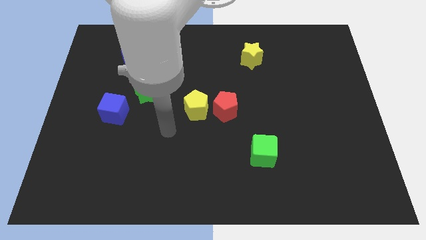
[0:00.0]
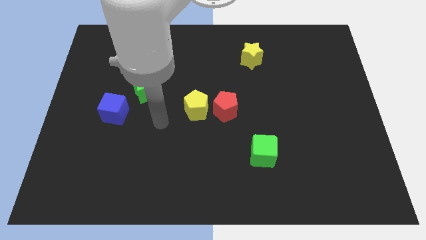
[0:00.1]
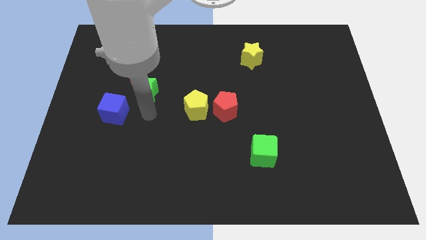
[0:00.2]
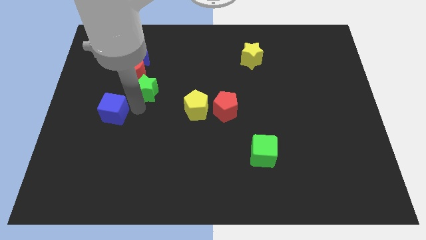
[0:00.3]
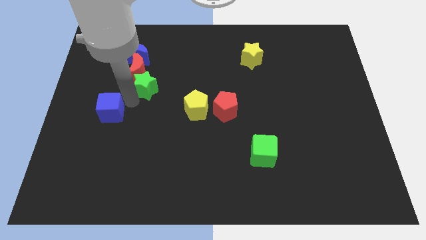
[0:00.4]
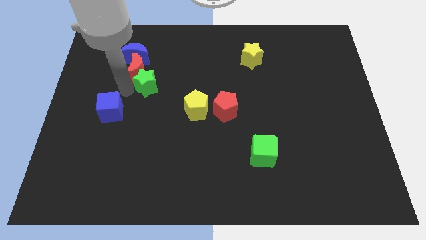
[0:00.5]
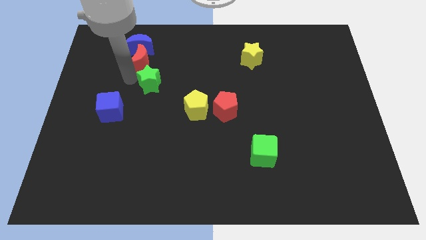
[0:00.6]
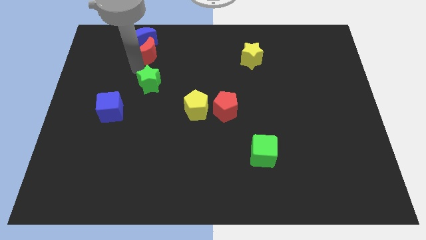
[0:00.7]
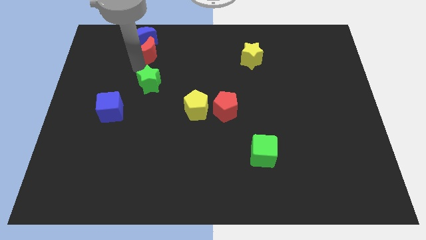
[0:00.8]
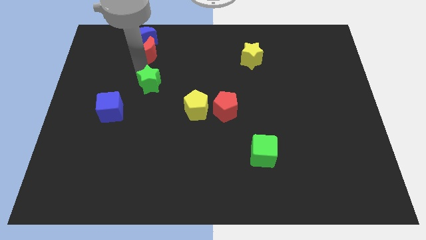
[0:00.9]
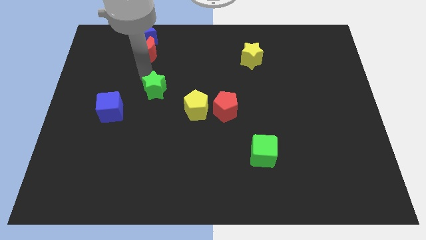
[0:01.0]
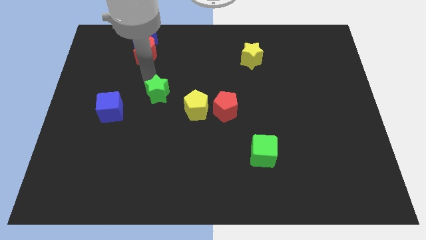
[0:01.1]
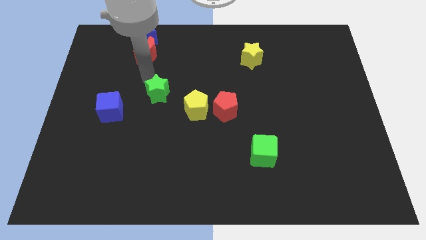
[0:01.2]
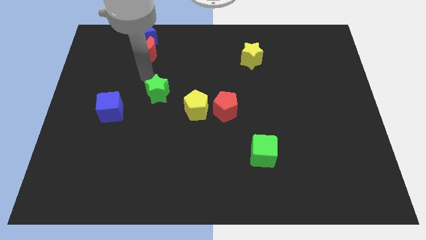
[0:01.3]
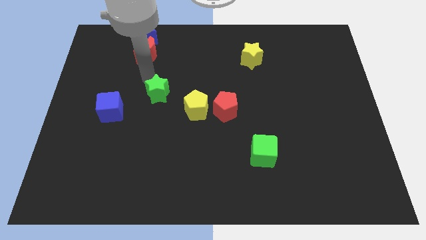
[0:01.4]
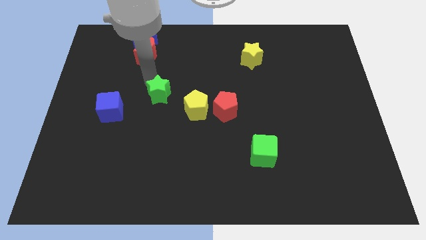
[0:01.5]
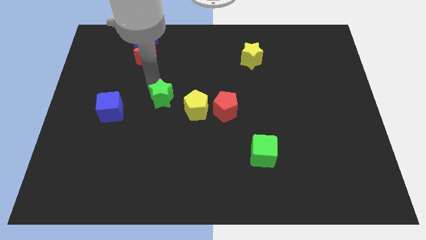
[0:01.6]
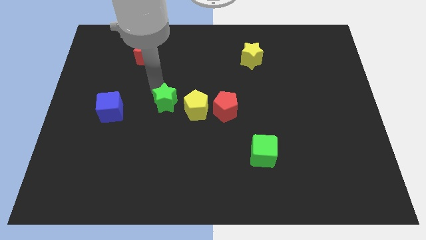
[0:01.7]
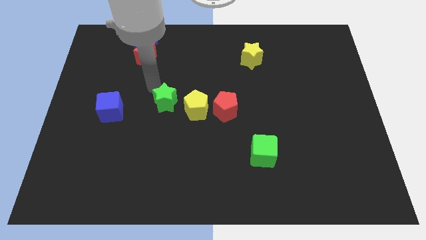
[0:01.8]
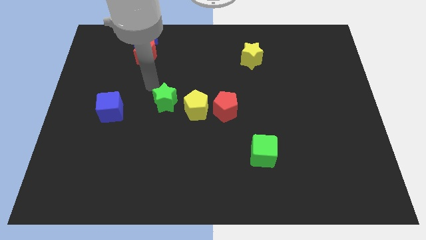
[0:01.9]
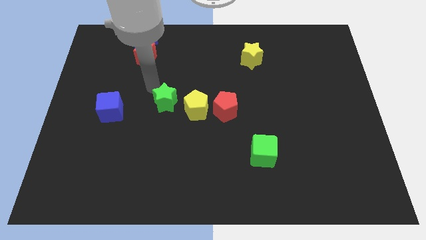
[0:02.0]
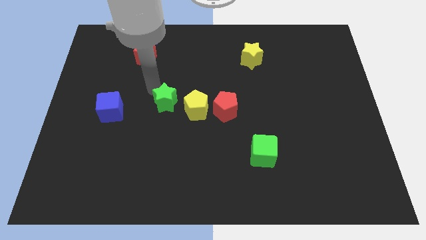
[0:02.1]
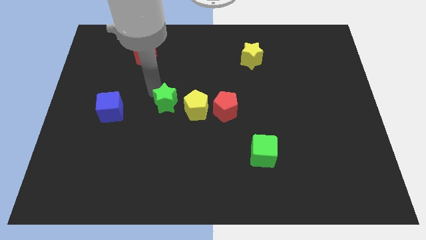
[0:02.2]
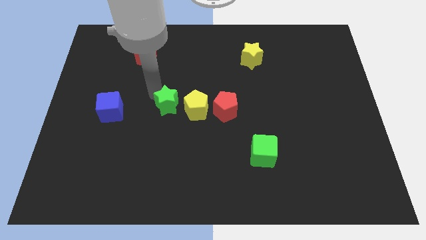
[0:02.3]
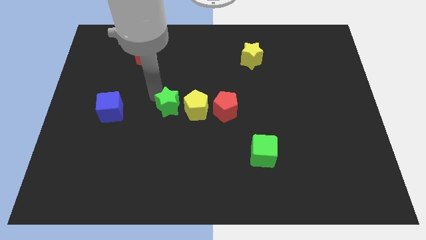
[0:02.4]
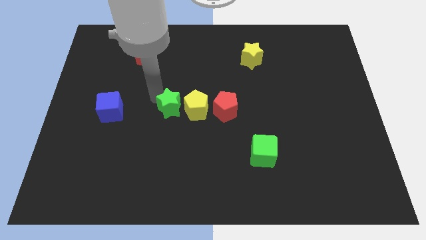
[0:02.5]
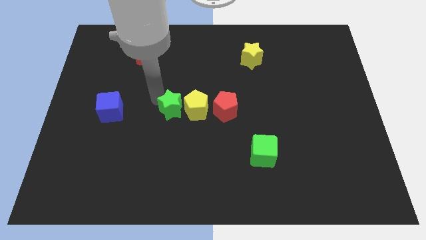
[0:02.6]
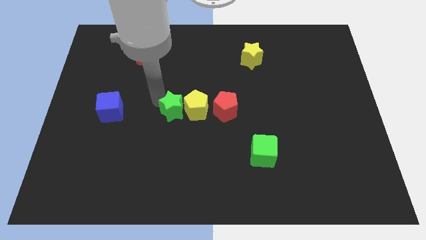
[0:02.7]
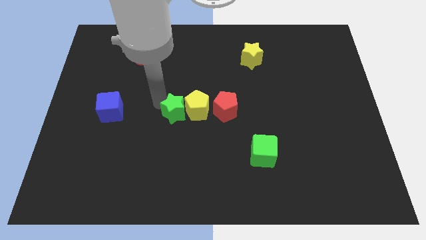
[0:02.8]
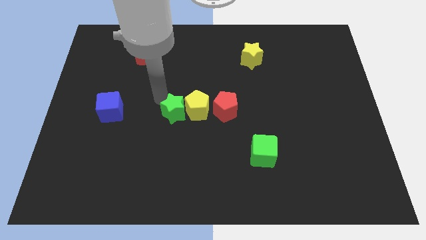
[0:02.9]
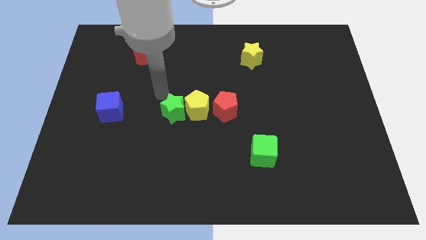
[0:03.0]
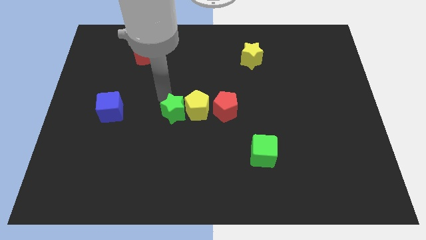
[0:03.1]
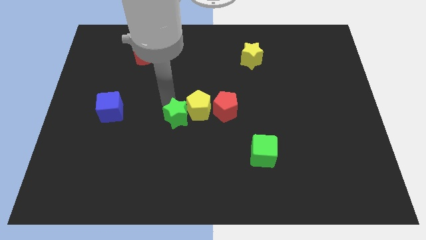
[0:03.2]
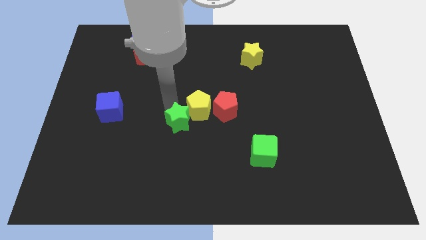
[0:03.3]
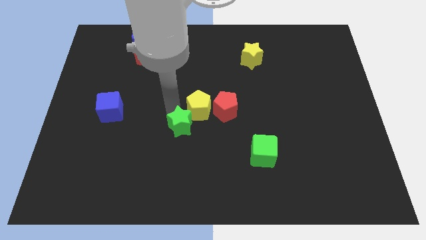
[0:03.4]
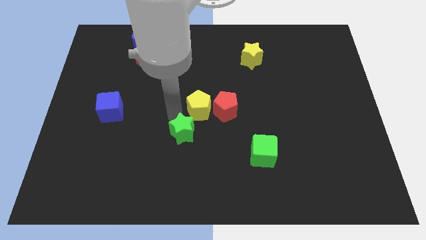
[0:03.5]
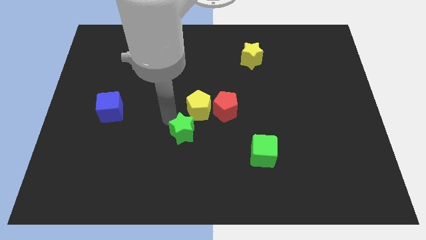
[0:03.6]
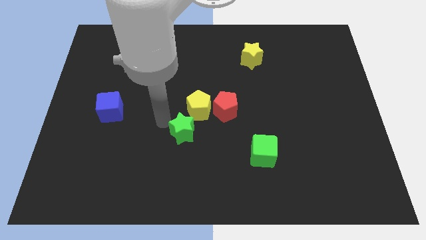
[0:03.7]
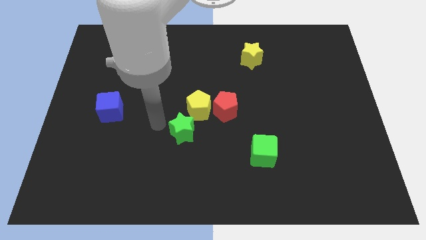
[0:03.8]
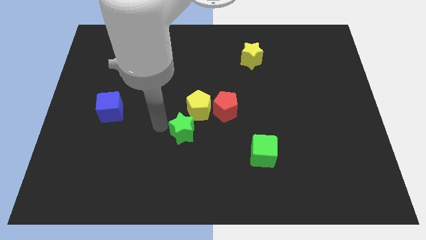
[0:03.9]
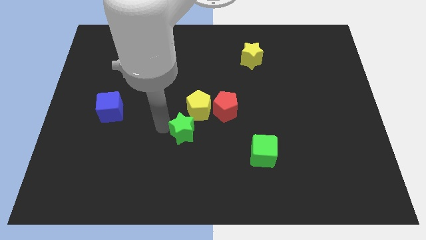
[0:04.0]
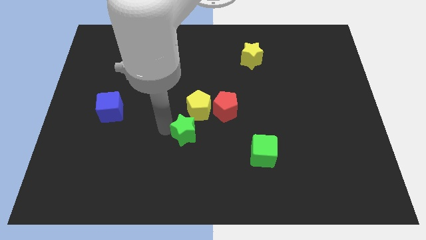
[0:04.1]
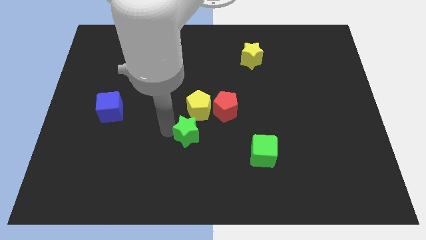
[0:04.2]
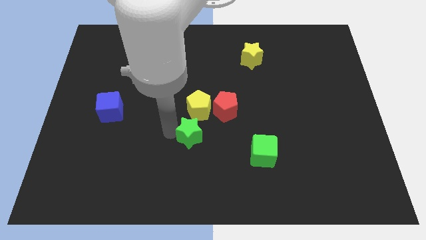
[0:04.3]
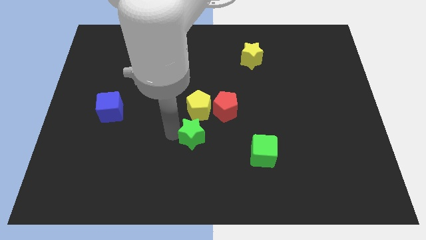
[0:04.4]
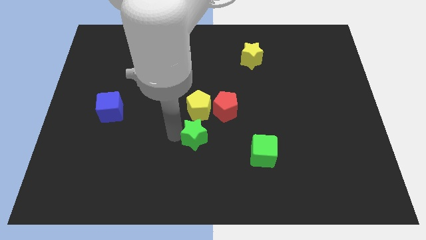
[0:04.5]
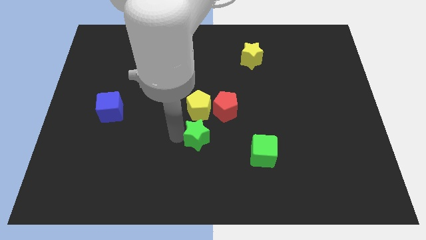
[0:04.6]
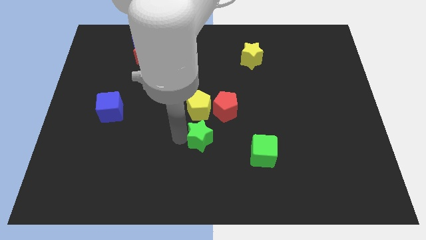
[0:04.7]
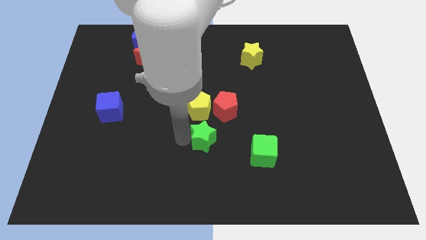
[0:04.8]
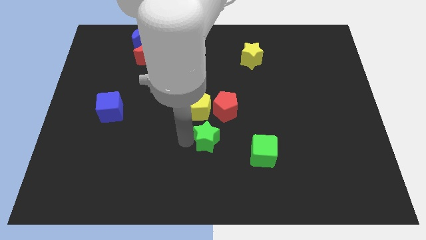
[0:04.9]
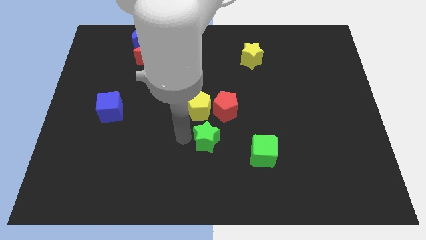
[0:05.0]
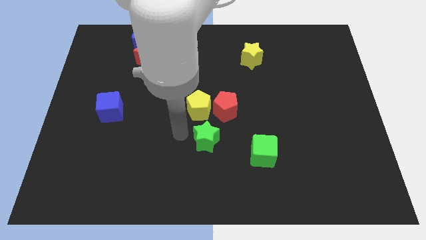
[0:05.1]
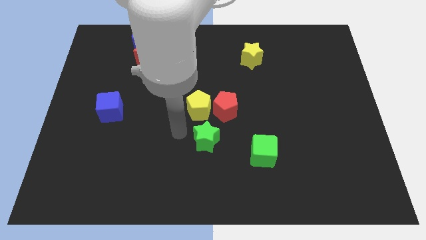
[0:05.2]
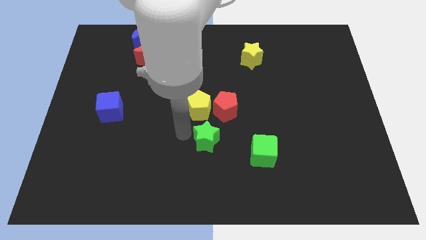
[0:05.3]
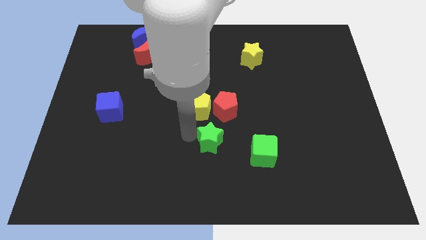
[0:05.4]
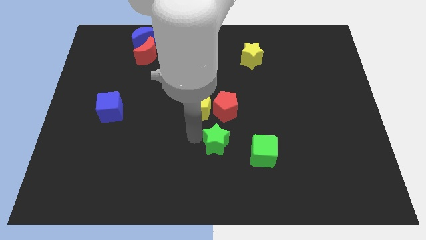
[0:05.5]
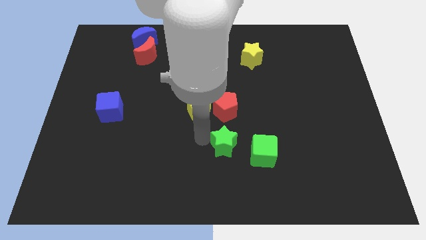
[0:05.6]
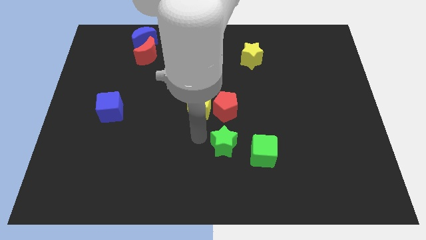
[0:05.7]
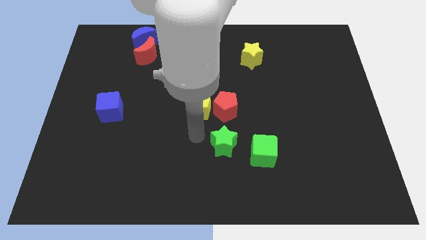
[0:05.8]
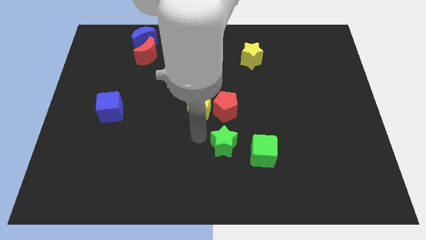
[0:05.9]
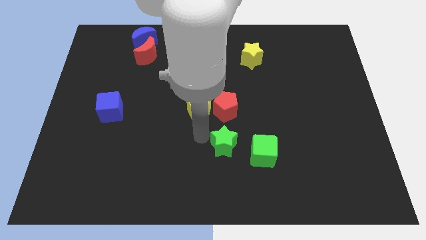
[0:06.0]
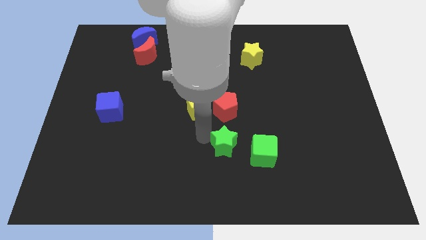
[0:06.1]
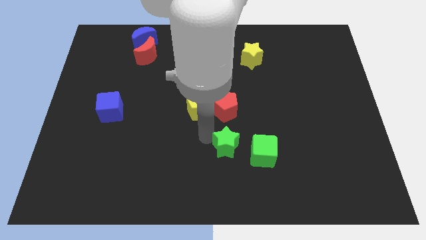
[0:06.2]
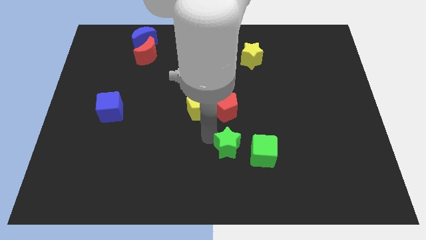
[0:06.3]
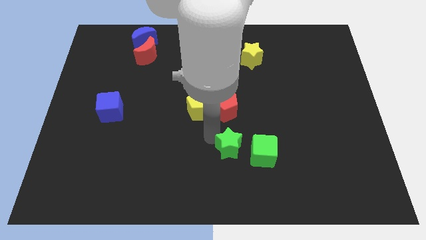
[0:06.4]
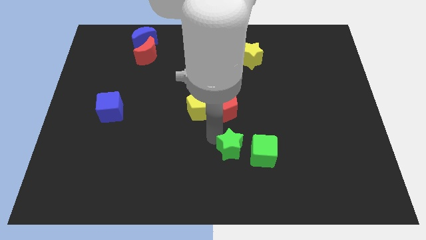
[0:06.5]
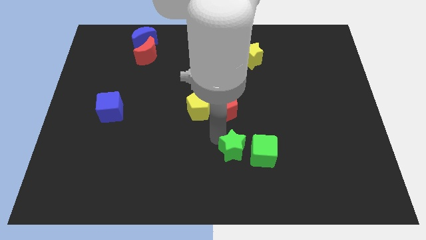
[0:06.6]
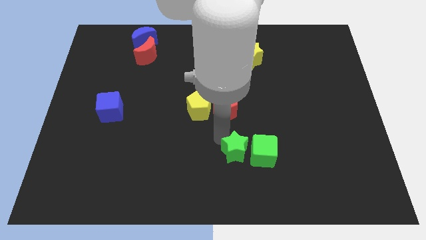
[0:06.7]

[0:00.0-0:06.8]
push the green star towards the green cube

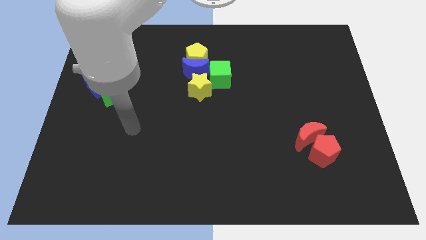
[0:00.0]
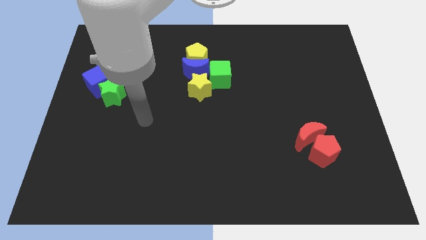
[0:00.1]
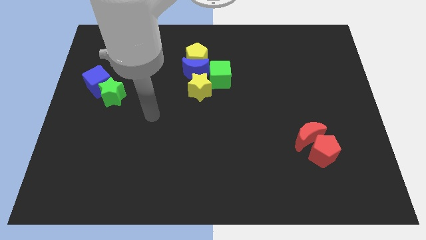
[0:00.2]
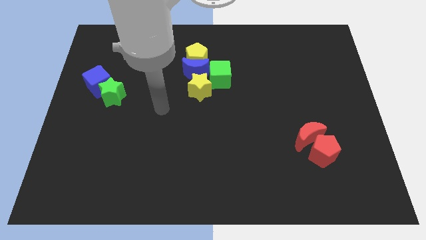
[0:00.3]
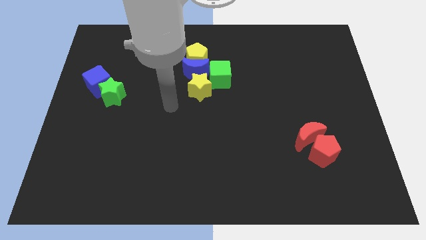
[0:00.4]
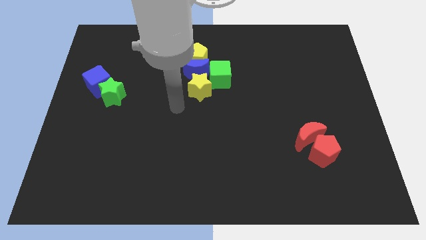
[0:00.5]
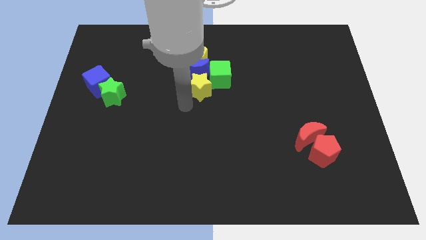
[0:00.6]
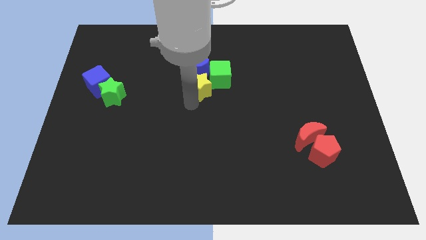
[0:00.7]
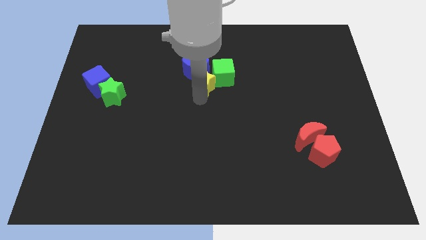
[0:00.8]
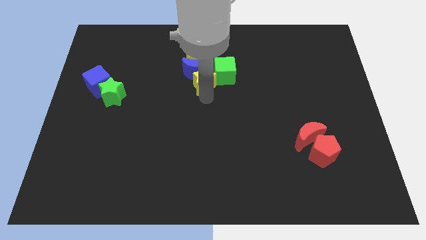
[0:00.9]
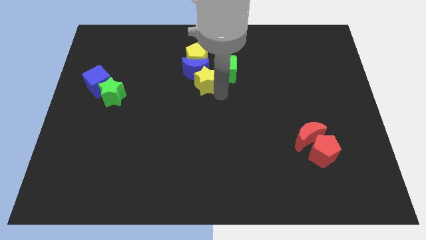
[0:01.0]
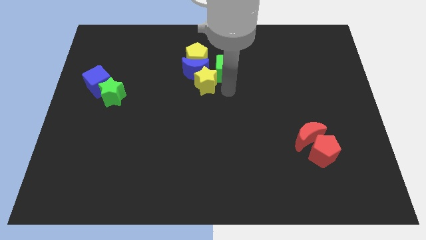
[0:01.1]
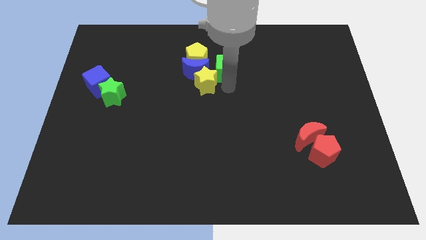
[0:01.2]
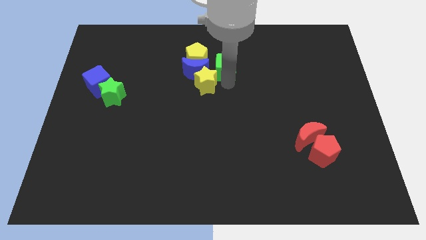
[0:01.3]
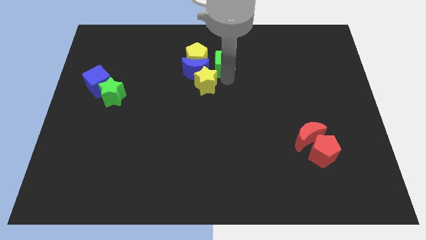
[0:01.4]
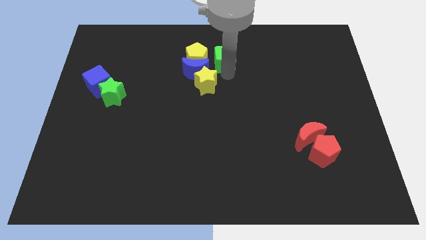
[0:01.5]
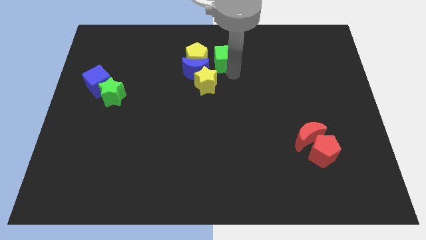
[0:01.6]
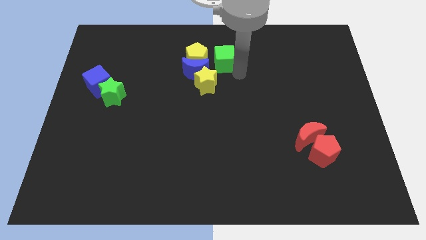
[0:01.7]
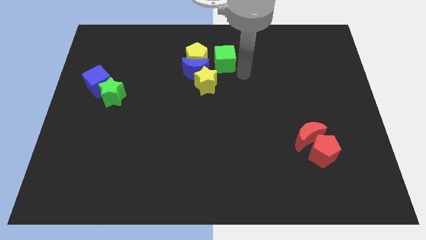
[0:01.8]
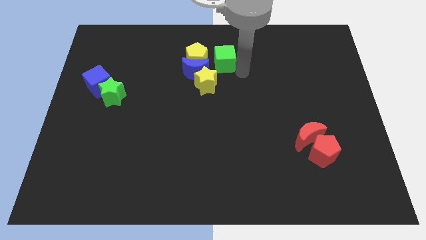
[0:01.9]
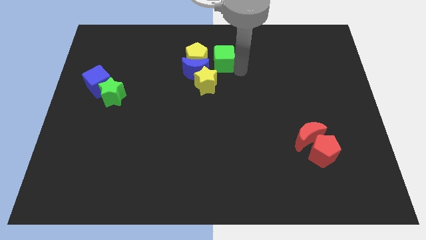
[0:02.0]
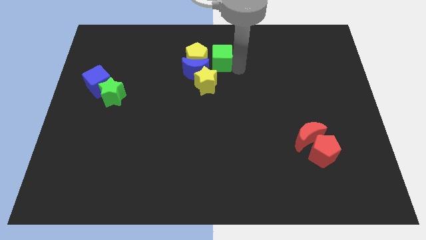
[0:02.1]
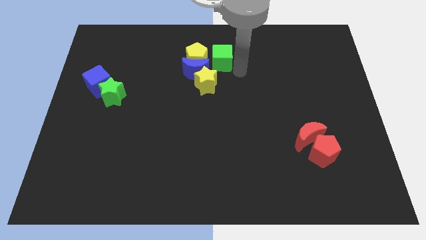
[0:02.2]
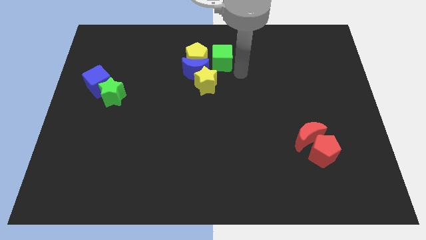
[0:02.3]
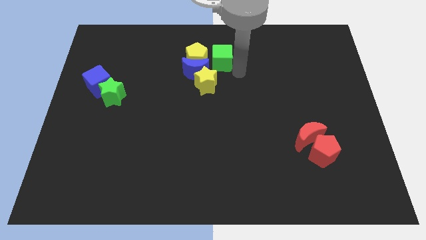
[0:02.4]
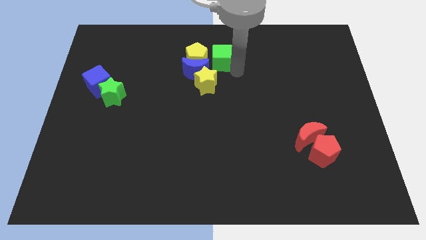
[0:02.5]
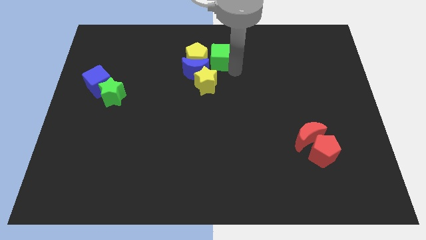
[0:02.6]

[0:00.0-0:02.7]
put the green cube next to the yellow pentagon
